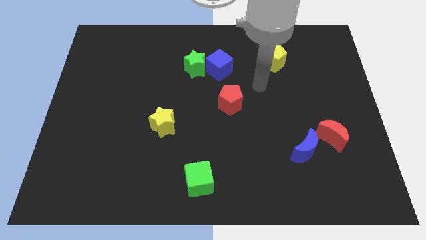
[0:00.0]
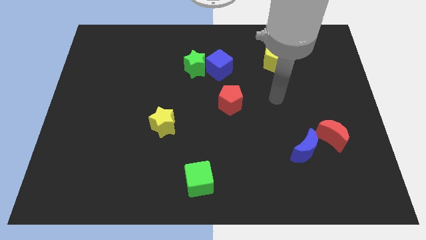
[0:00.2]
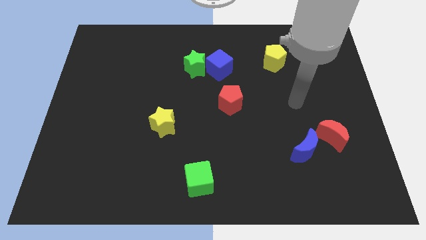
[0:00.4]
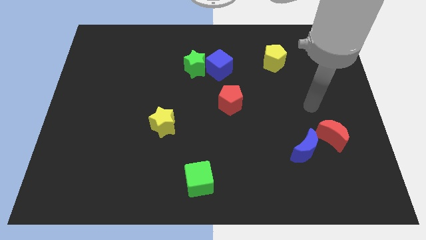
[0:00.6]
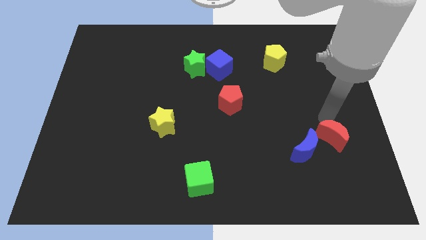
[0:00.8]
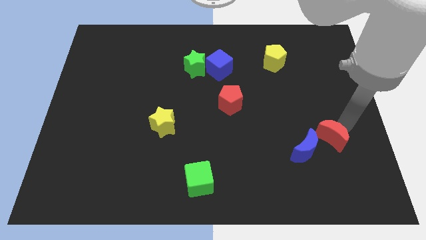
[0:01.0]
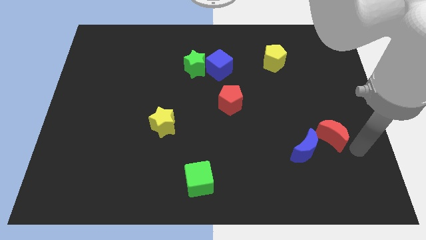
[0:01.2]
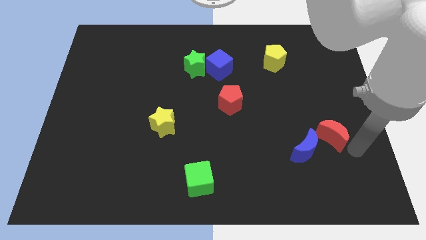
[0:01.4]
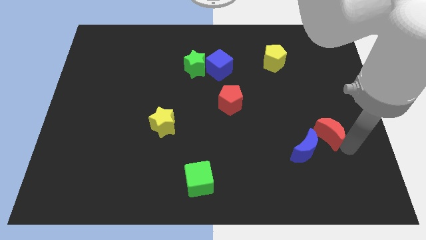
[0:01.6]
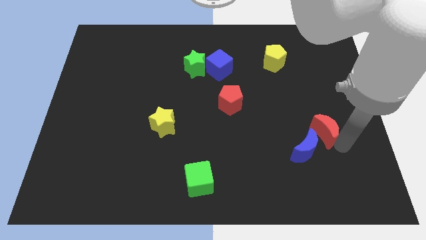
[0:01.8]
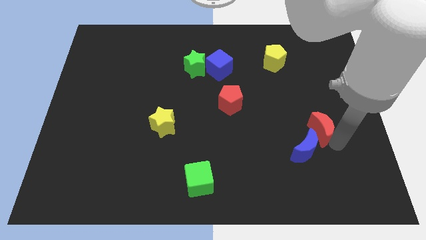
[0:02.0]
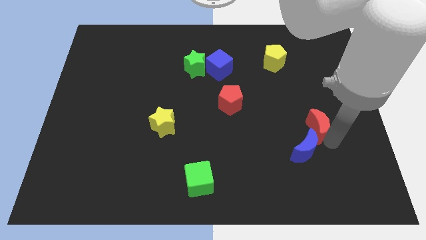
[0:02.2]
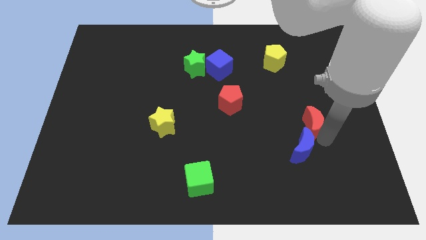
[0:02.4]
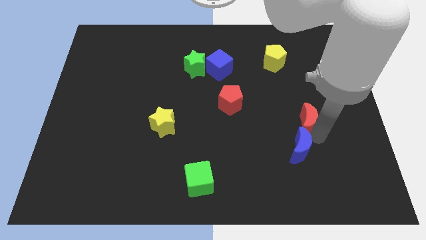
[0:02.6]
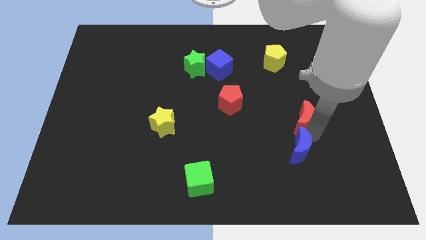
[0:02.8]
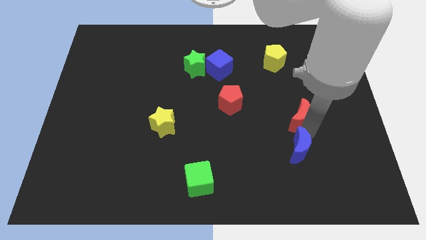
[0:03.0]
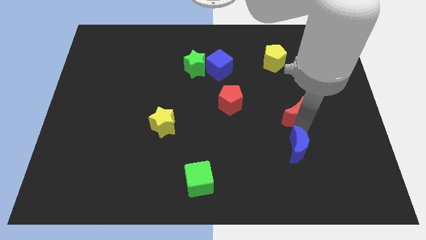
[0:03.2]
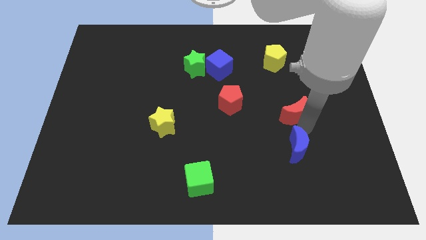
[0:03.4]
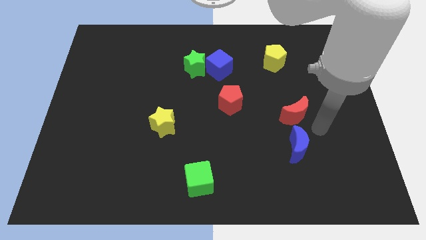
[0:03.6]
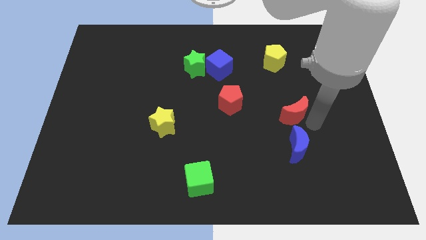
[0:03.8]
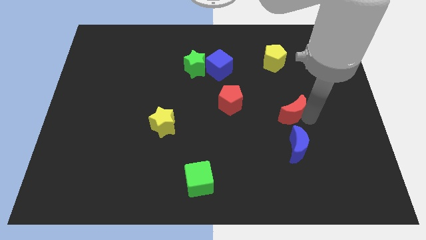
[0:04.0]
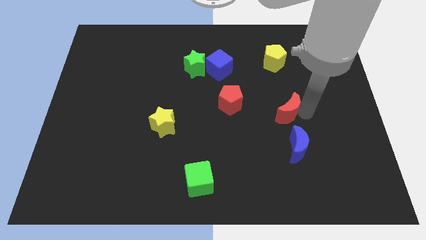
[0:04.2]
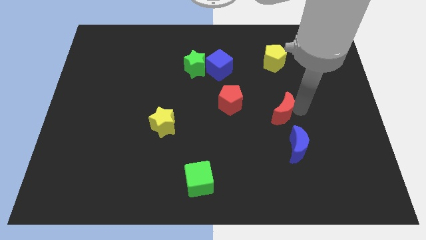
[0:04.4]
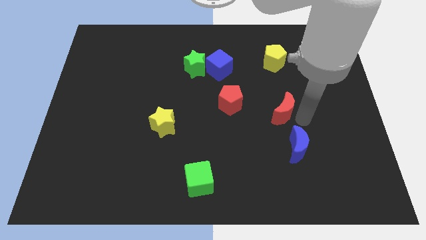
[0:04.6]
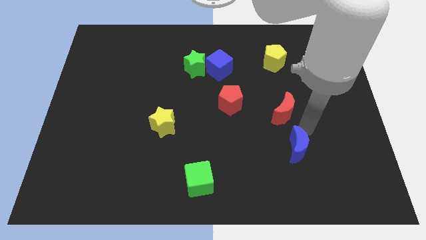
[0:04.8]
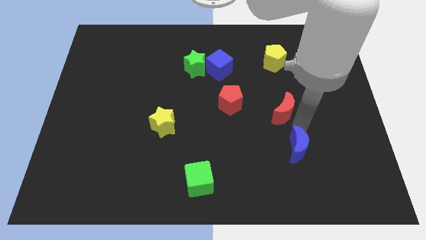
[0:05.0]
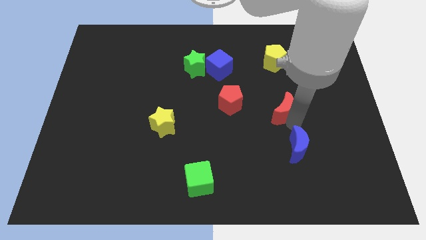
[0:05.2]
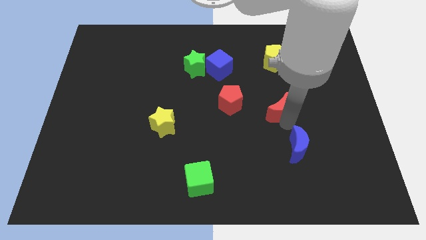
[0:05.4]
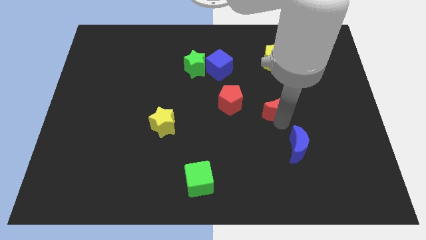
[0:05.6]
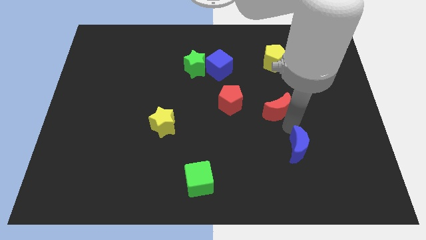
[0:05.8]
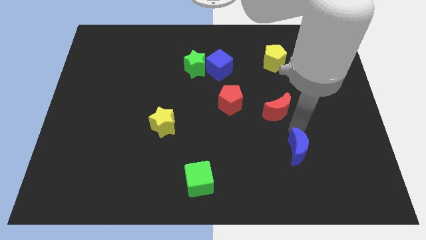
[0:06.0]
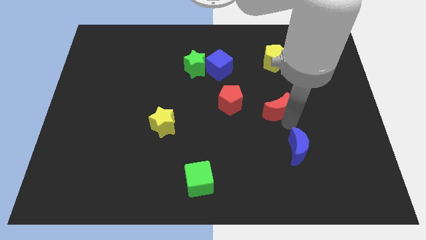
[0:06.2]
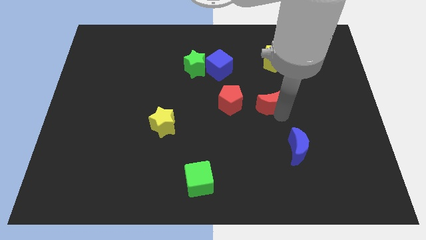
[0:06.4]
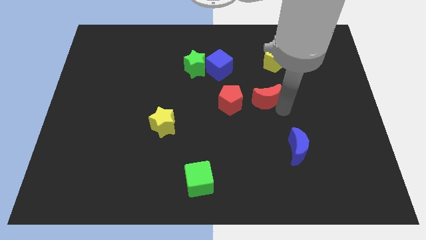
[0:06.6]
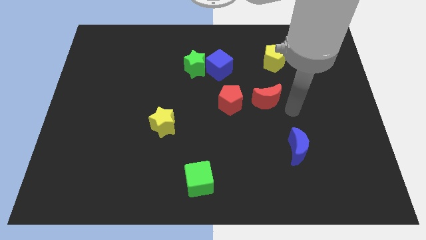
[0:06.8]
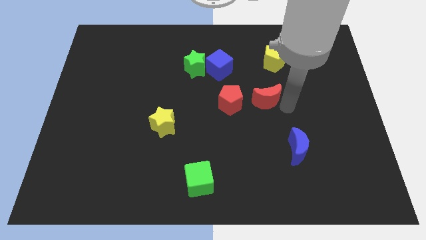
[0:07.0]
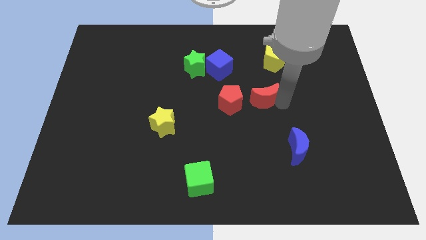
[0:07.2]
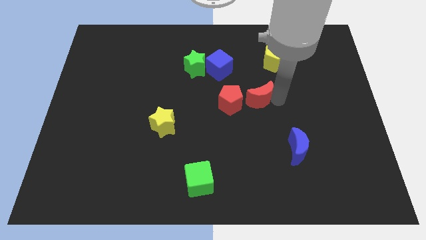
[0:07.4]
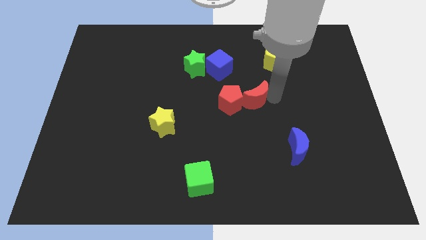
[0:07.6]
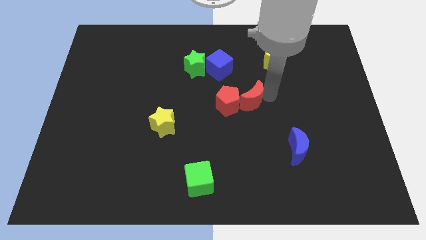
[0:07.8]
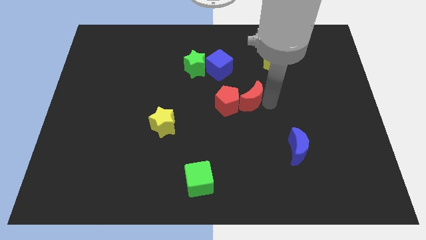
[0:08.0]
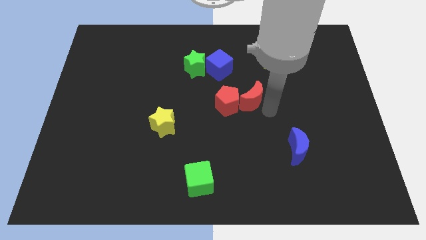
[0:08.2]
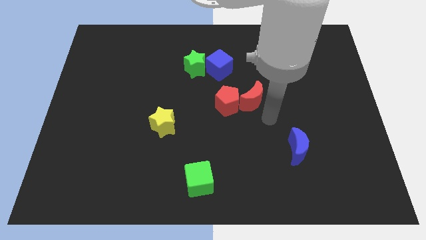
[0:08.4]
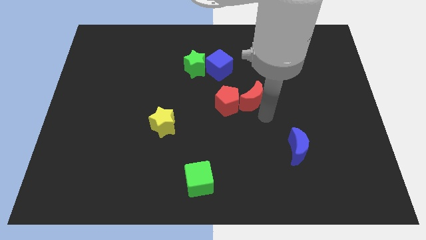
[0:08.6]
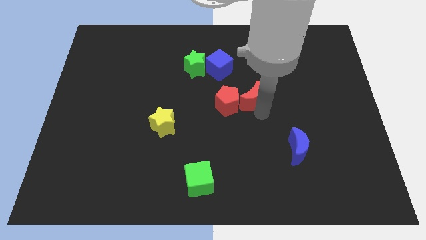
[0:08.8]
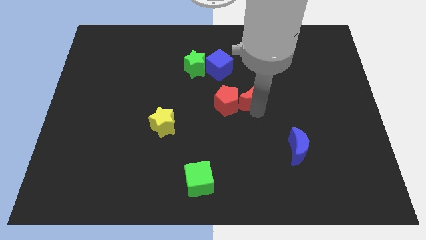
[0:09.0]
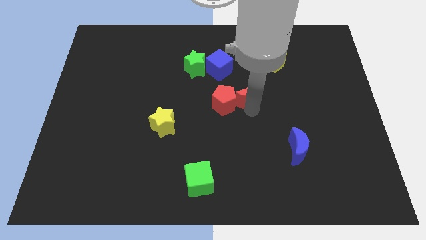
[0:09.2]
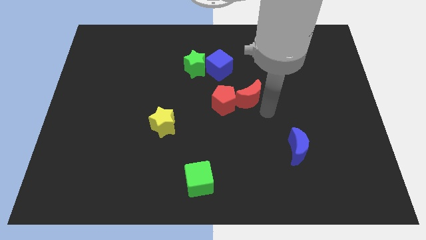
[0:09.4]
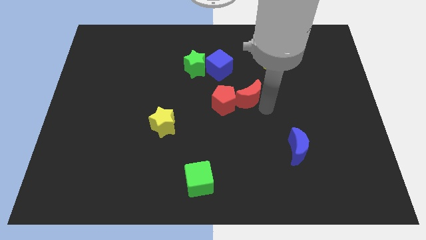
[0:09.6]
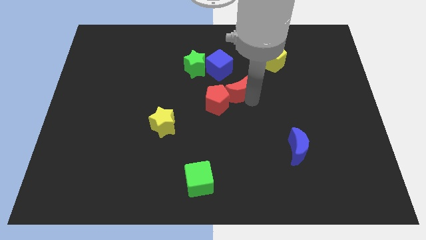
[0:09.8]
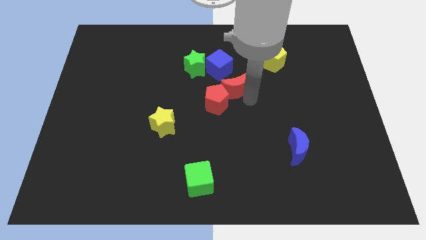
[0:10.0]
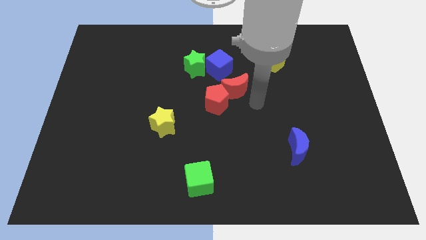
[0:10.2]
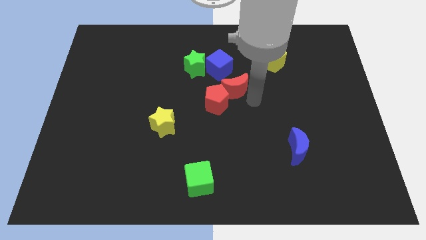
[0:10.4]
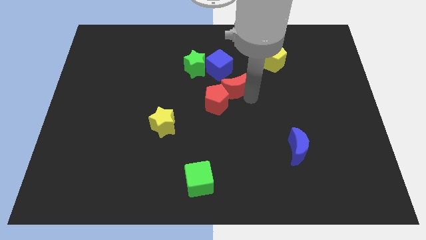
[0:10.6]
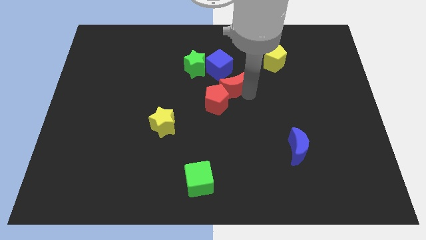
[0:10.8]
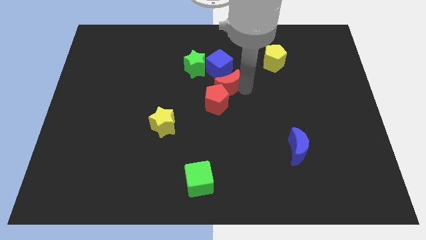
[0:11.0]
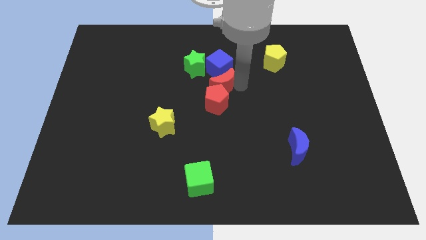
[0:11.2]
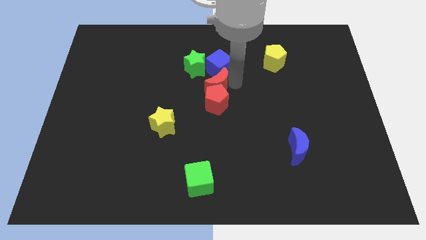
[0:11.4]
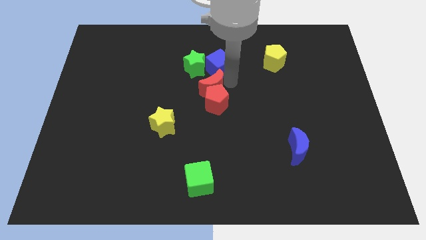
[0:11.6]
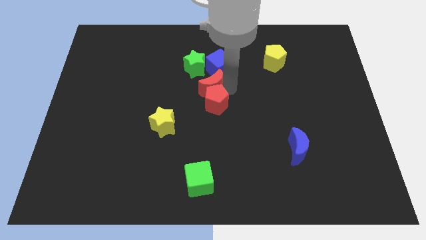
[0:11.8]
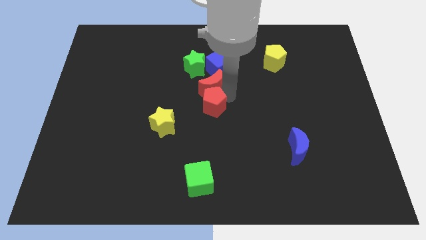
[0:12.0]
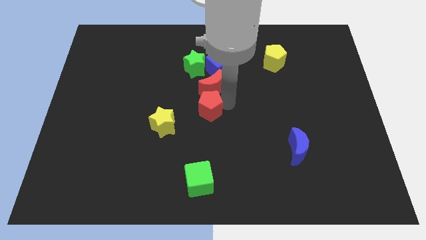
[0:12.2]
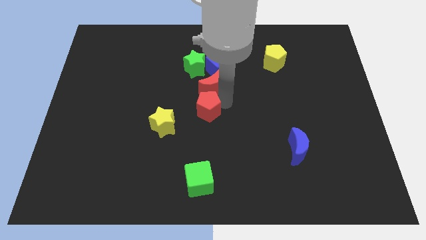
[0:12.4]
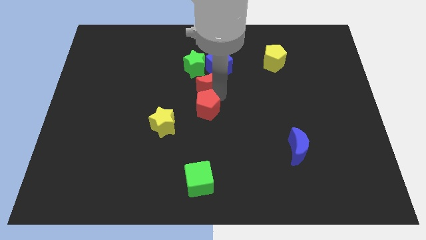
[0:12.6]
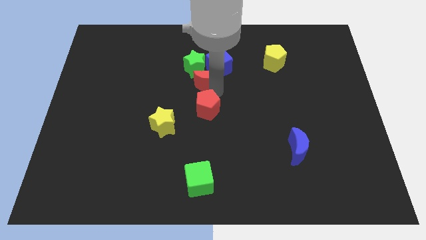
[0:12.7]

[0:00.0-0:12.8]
put the red moon next to the green star

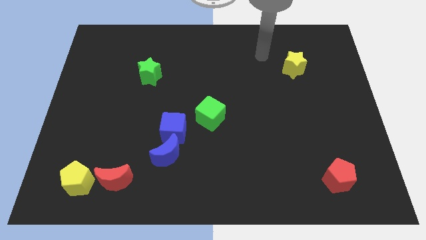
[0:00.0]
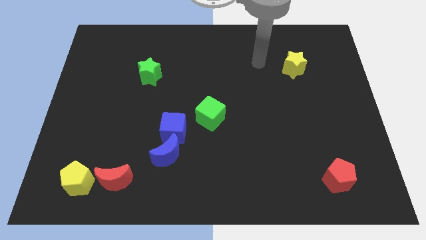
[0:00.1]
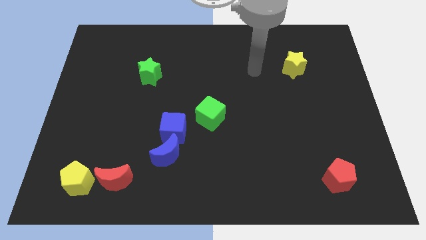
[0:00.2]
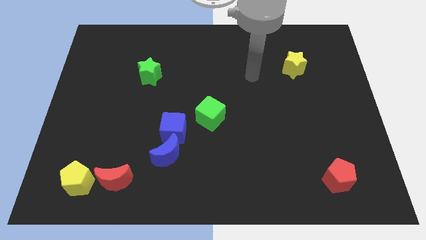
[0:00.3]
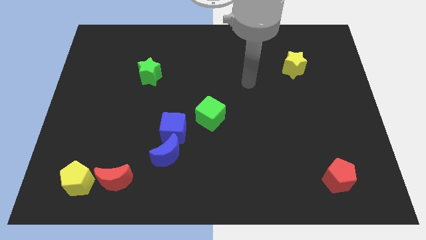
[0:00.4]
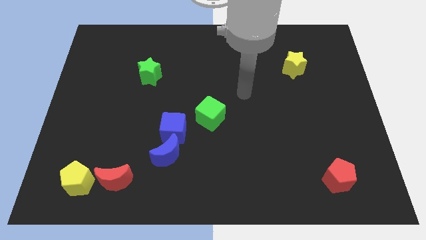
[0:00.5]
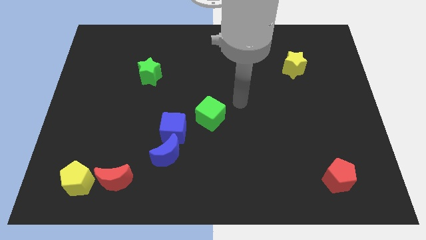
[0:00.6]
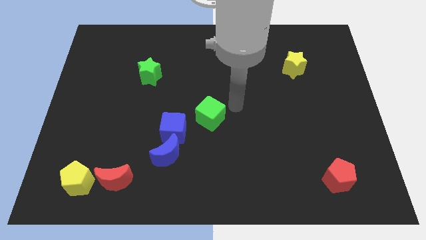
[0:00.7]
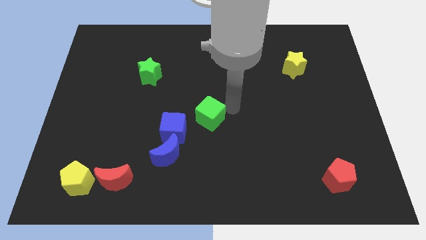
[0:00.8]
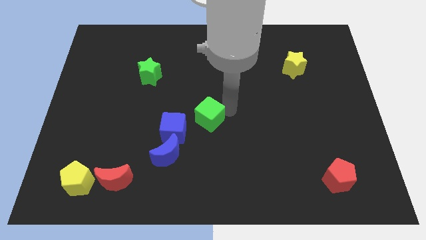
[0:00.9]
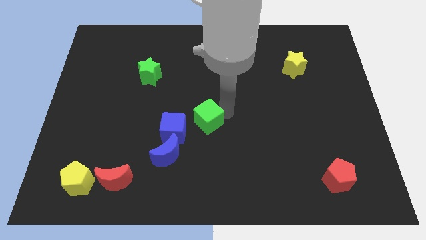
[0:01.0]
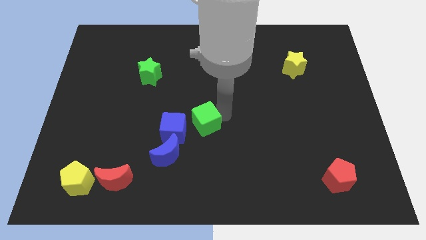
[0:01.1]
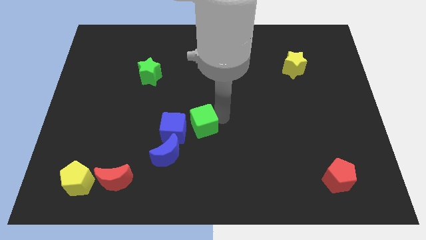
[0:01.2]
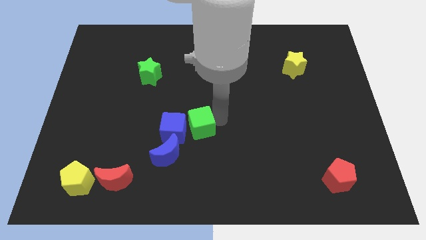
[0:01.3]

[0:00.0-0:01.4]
move the green cube to the blue cube
